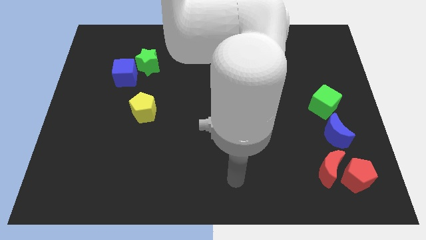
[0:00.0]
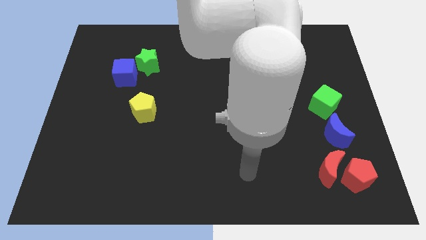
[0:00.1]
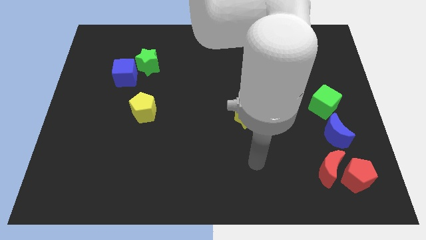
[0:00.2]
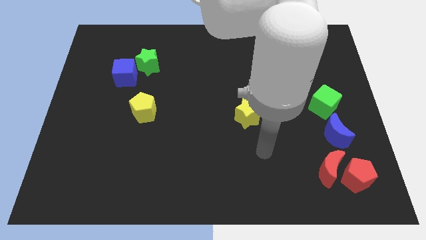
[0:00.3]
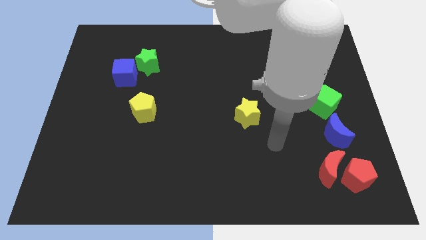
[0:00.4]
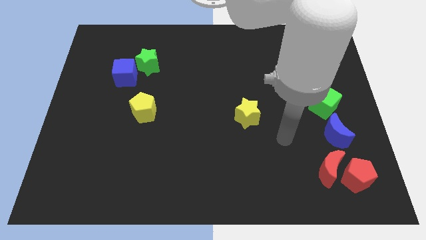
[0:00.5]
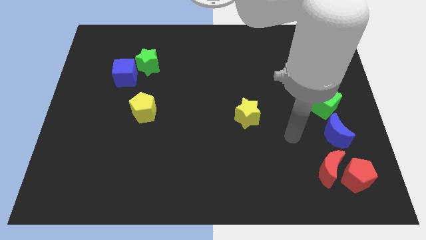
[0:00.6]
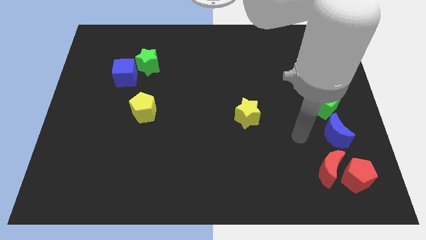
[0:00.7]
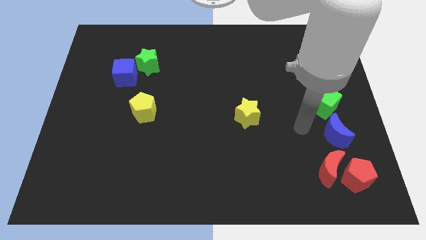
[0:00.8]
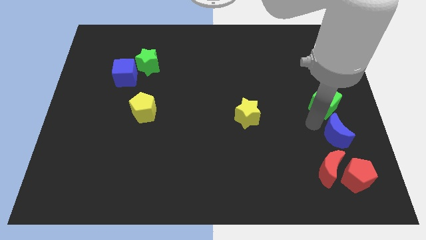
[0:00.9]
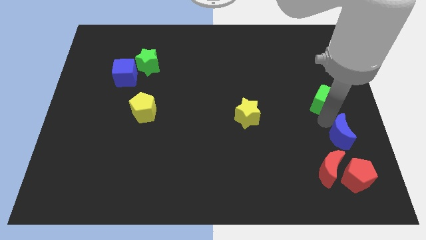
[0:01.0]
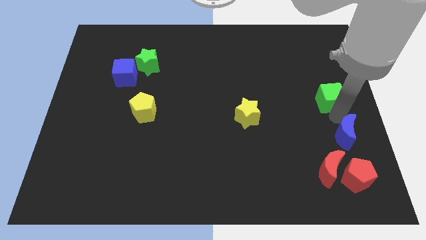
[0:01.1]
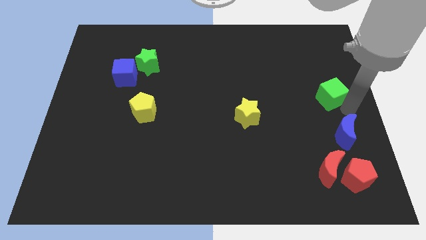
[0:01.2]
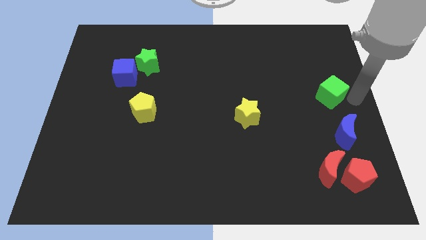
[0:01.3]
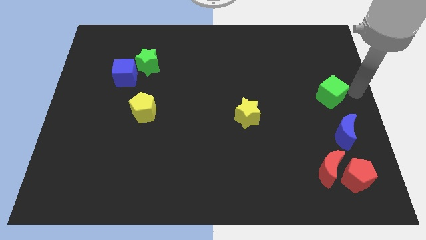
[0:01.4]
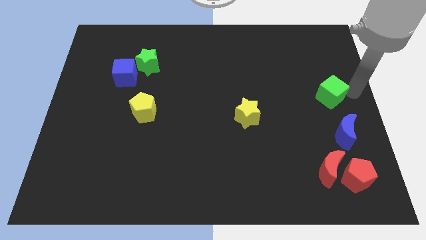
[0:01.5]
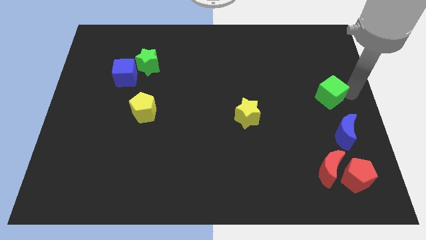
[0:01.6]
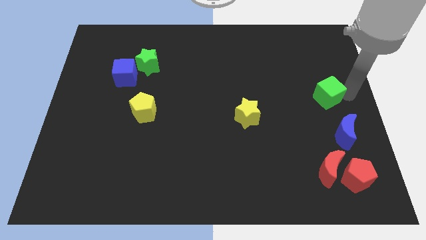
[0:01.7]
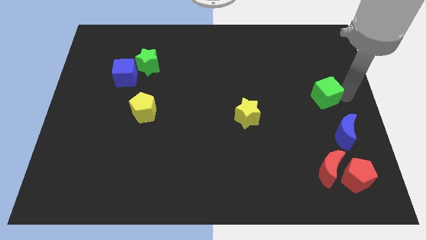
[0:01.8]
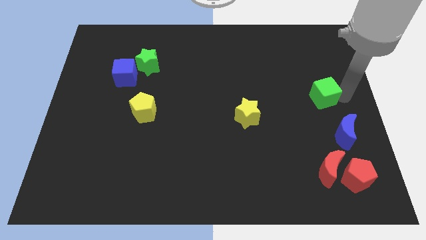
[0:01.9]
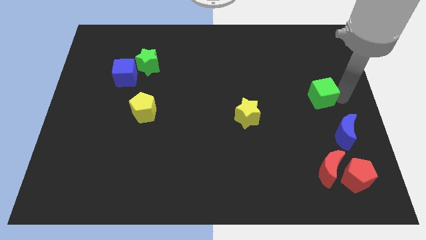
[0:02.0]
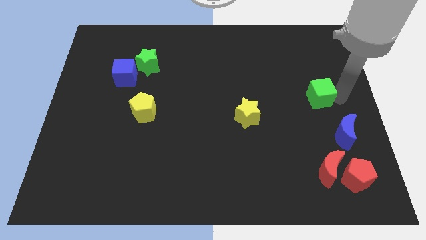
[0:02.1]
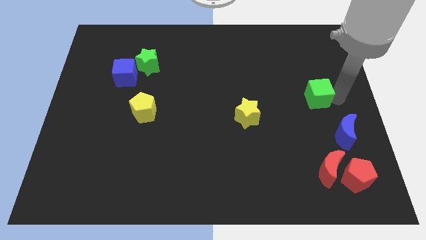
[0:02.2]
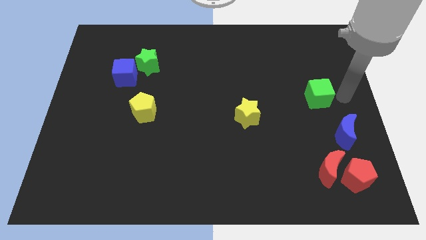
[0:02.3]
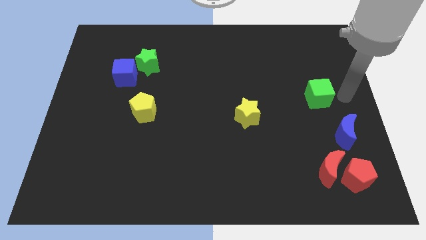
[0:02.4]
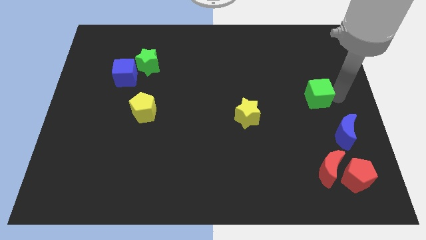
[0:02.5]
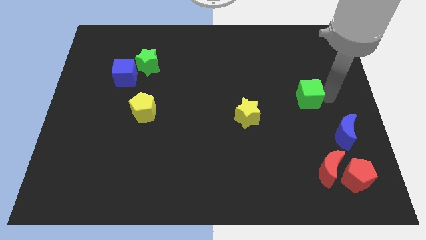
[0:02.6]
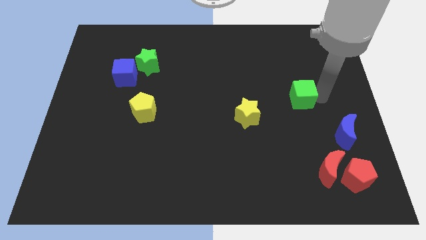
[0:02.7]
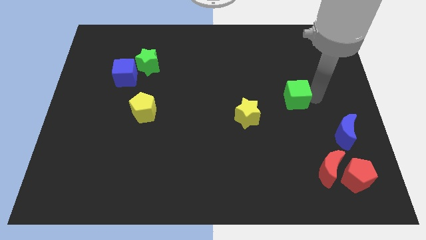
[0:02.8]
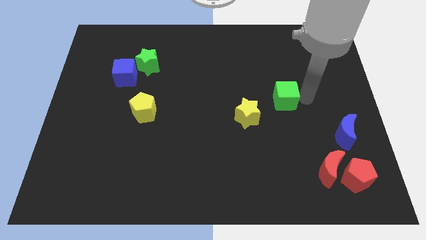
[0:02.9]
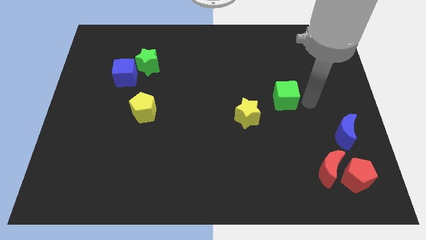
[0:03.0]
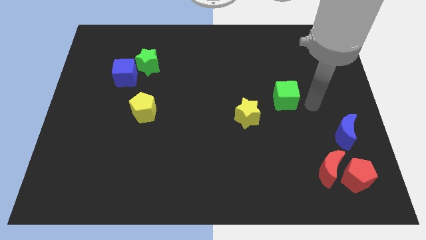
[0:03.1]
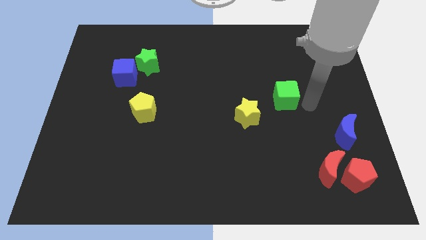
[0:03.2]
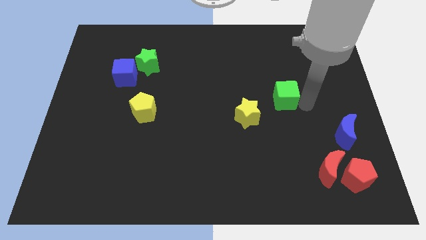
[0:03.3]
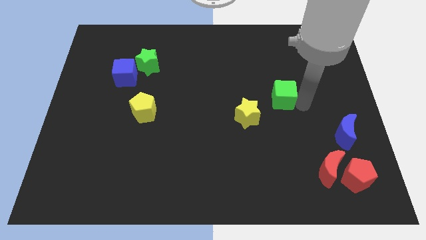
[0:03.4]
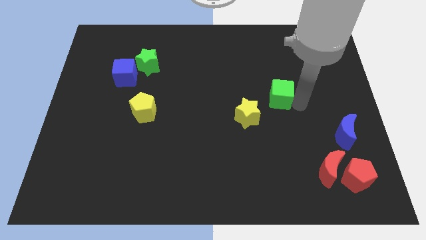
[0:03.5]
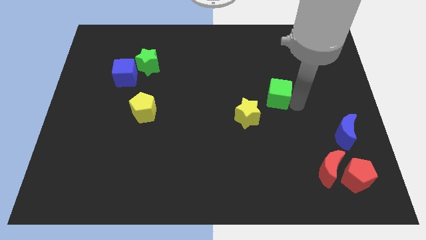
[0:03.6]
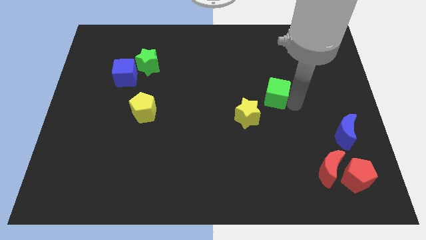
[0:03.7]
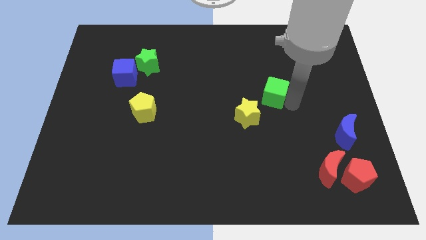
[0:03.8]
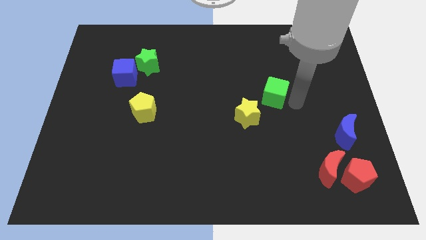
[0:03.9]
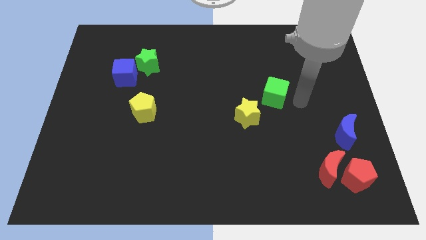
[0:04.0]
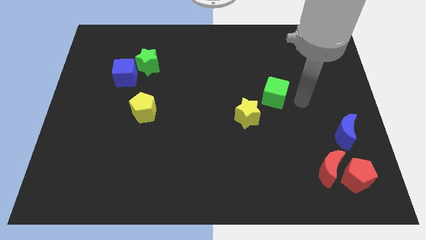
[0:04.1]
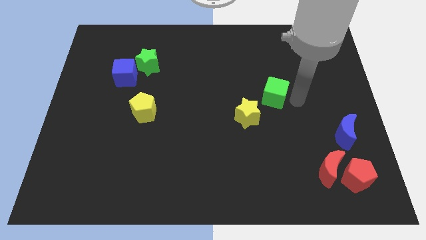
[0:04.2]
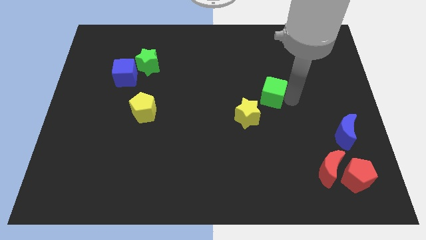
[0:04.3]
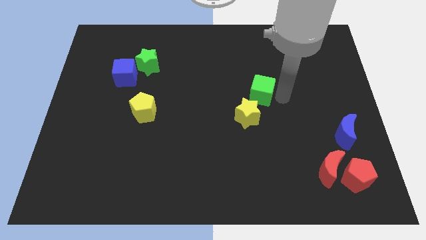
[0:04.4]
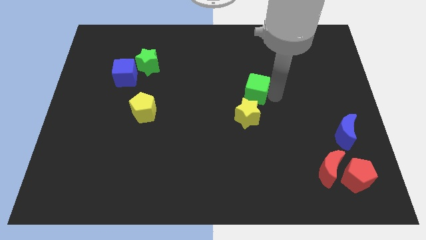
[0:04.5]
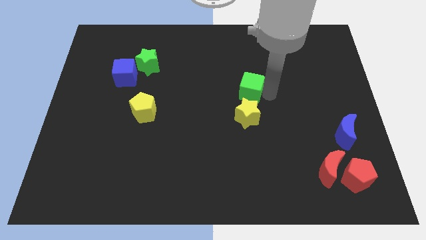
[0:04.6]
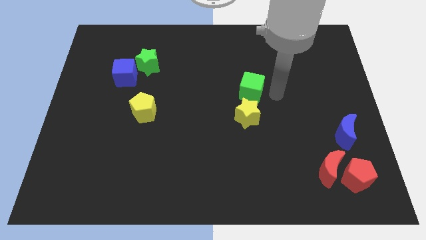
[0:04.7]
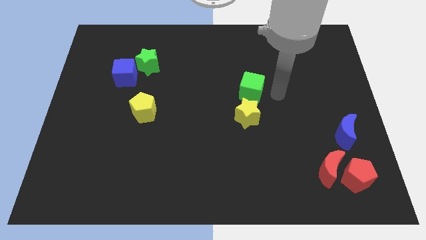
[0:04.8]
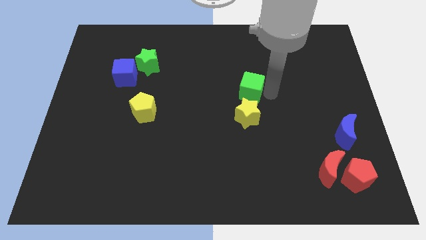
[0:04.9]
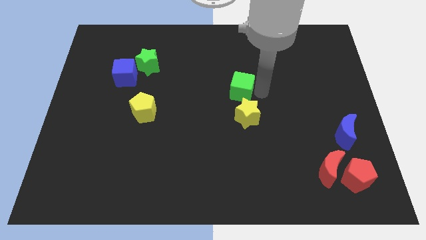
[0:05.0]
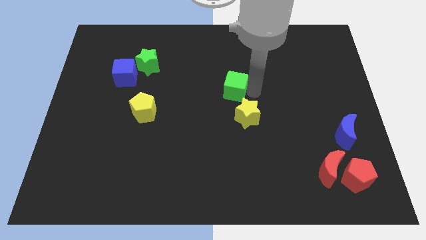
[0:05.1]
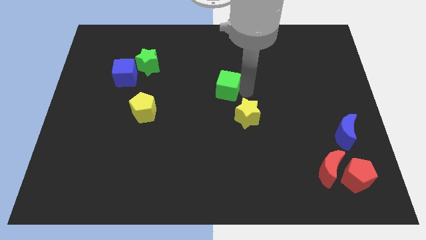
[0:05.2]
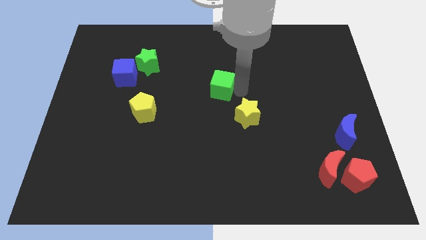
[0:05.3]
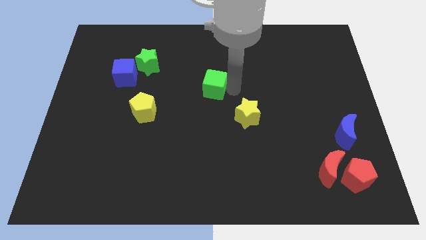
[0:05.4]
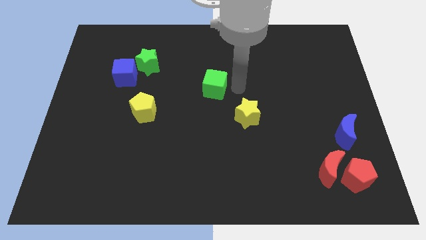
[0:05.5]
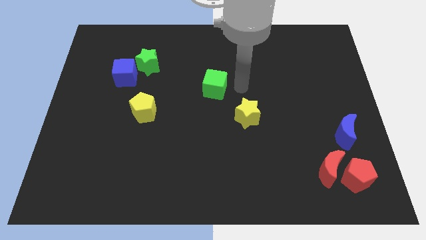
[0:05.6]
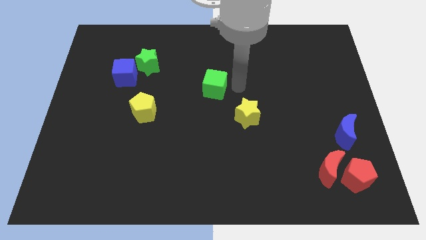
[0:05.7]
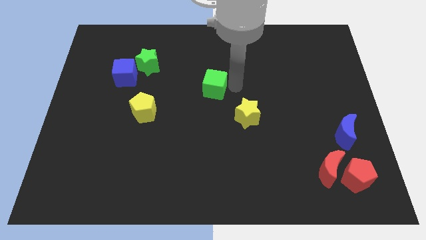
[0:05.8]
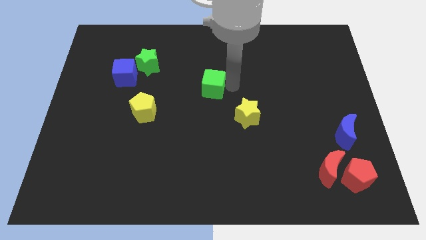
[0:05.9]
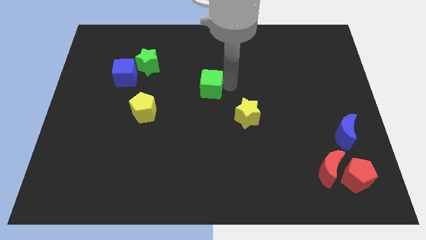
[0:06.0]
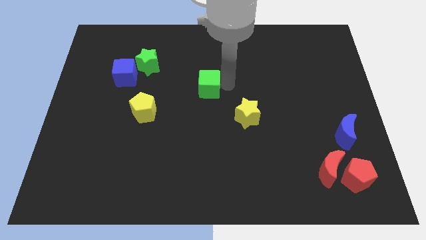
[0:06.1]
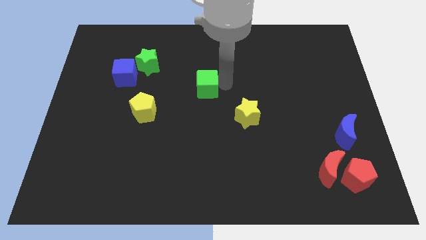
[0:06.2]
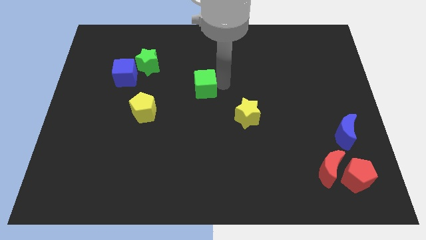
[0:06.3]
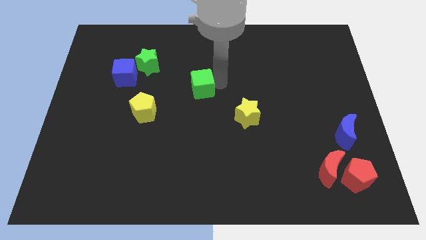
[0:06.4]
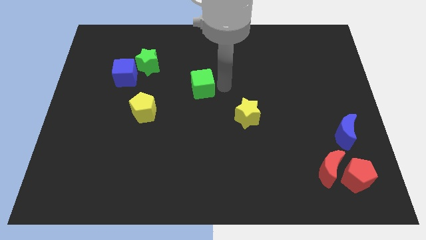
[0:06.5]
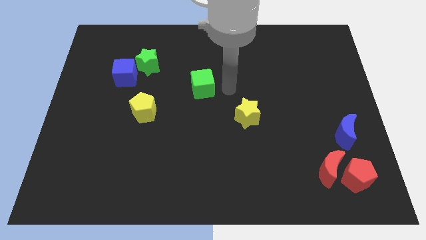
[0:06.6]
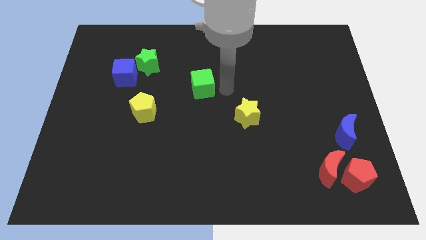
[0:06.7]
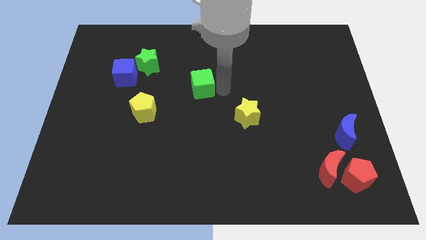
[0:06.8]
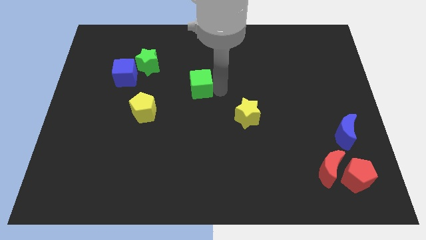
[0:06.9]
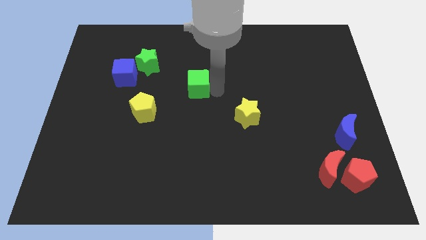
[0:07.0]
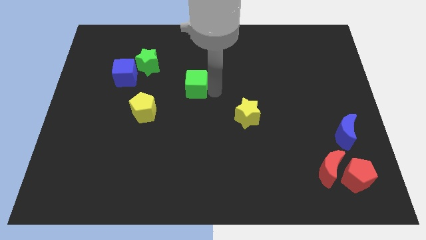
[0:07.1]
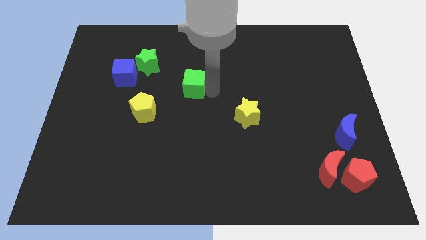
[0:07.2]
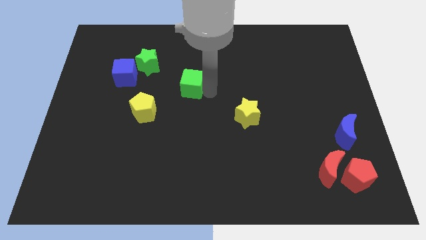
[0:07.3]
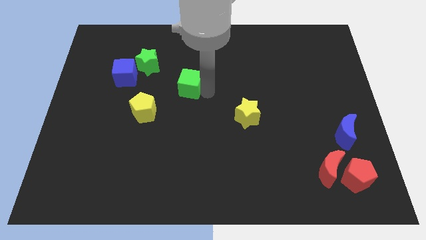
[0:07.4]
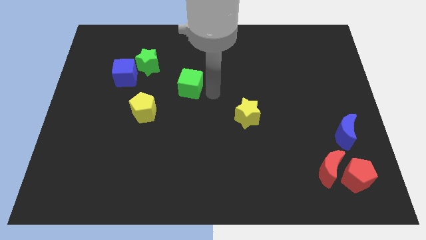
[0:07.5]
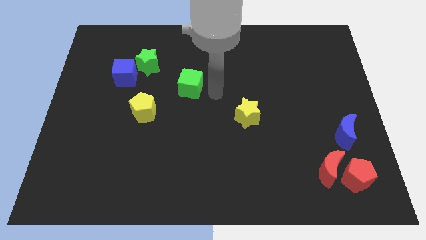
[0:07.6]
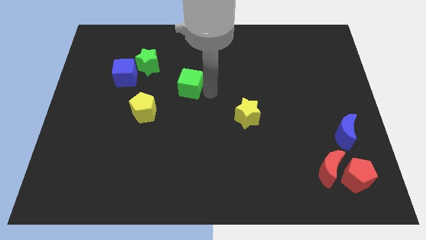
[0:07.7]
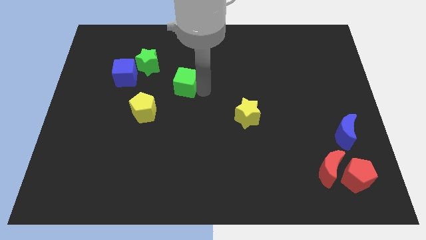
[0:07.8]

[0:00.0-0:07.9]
push the green cube to the bottom right side of the green star
